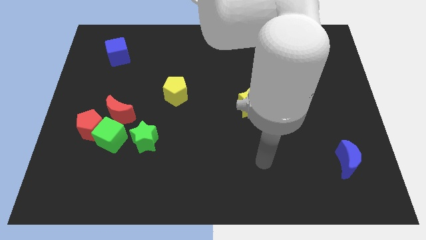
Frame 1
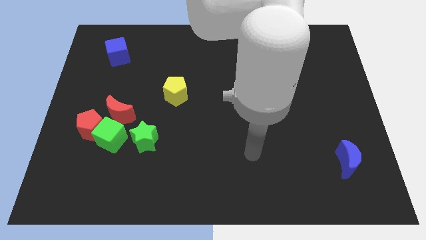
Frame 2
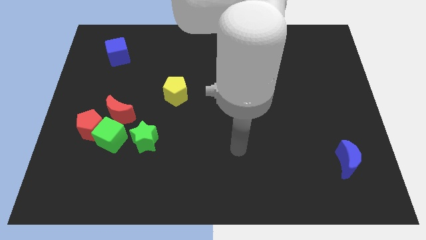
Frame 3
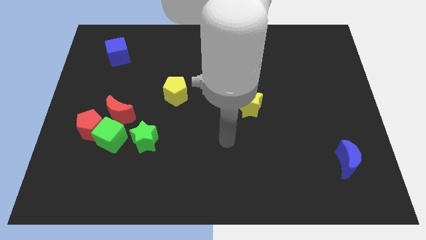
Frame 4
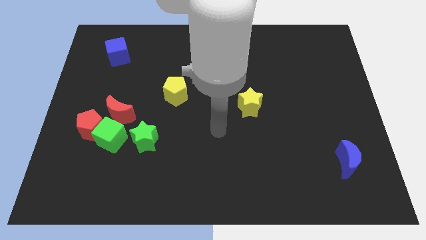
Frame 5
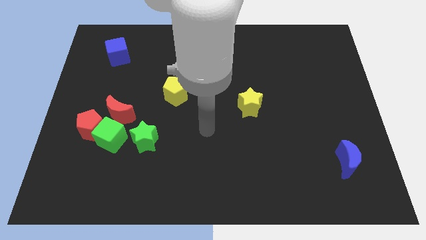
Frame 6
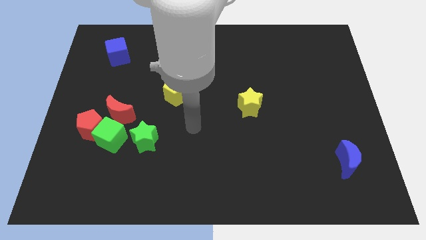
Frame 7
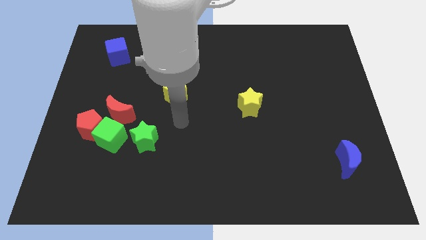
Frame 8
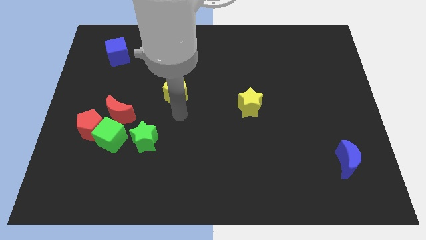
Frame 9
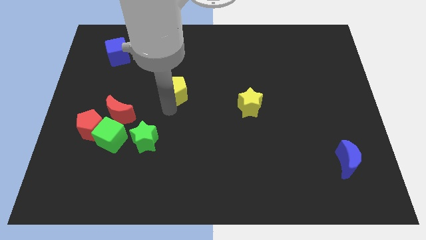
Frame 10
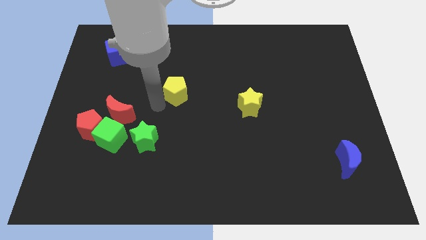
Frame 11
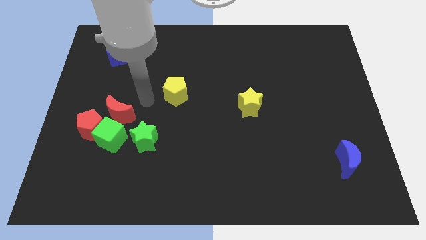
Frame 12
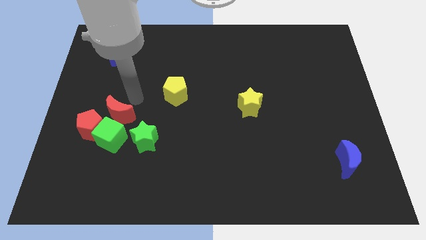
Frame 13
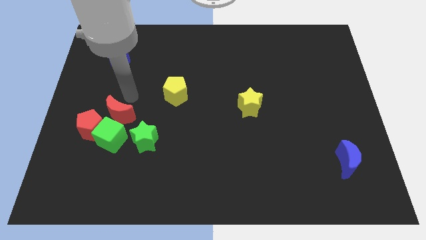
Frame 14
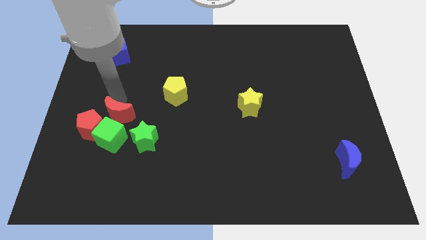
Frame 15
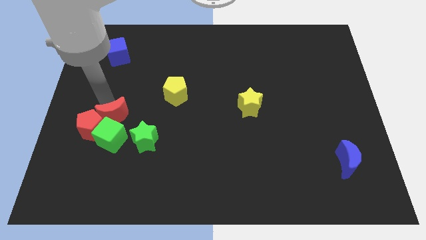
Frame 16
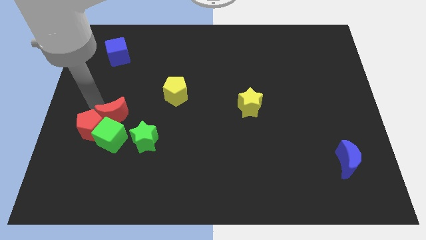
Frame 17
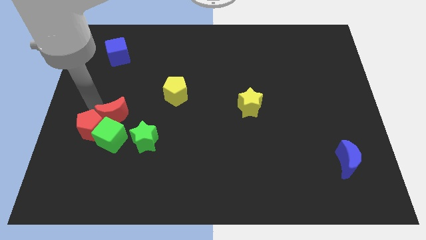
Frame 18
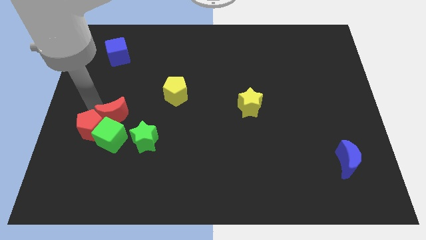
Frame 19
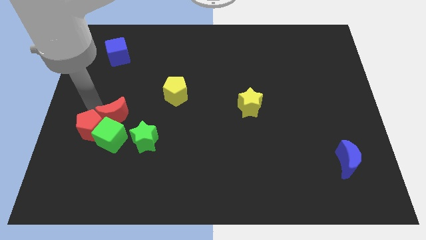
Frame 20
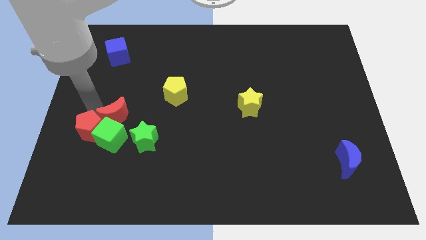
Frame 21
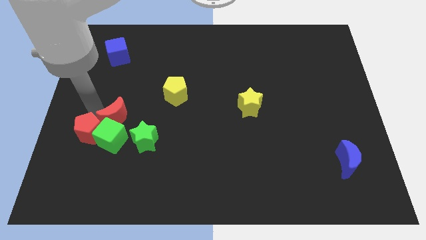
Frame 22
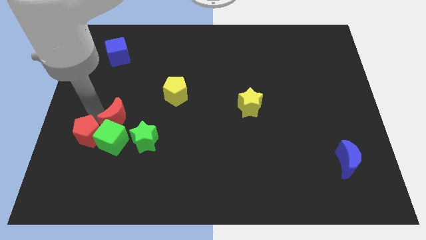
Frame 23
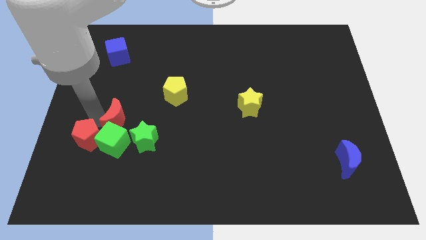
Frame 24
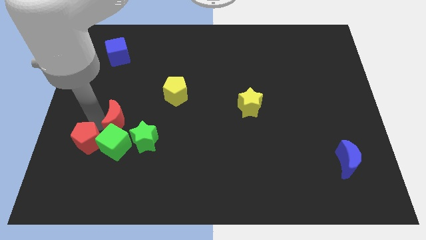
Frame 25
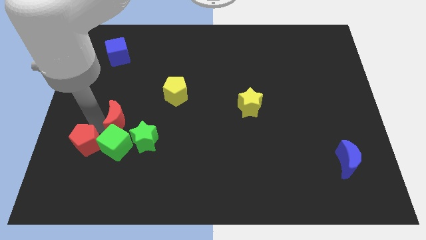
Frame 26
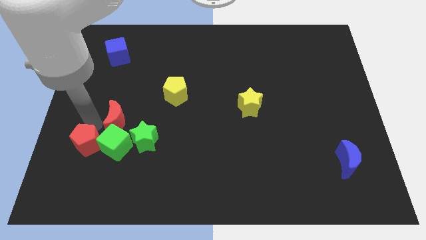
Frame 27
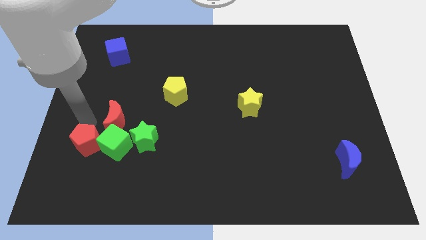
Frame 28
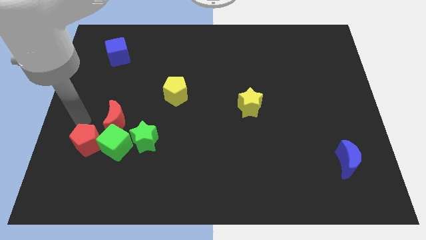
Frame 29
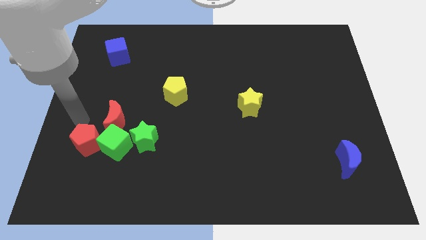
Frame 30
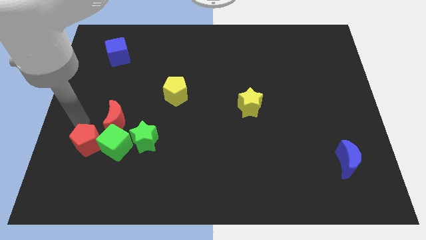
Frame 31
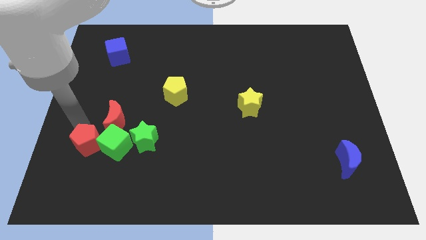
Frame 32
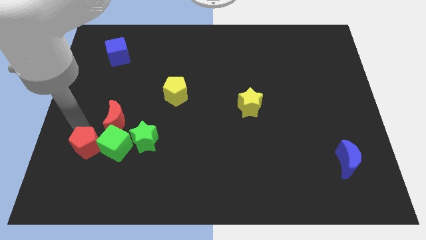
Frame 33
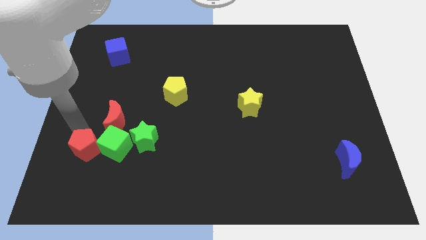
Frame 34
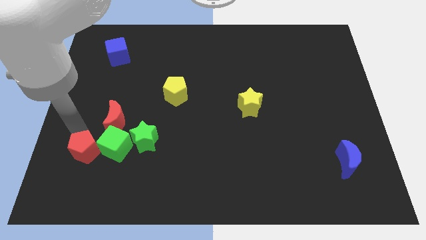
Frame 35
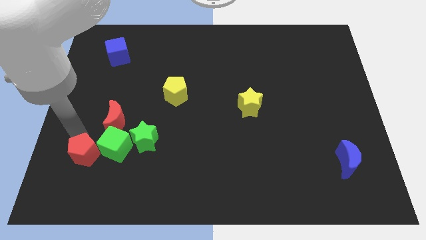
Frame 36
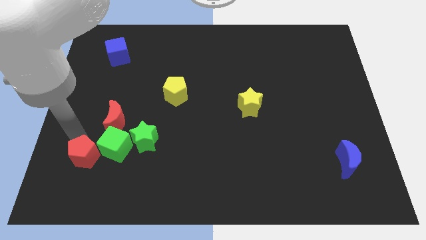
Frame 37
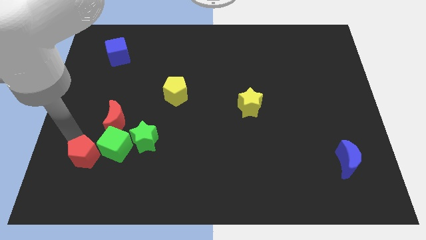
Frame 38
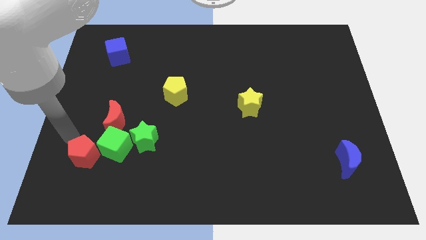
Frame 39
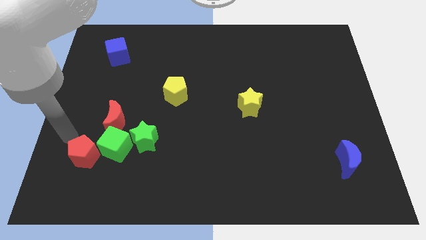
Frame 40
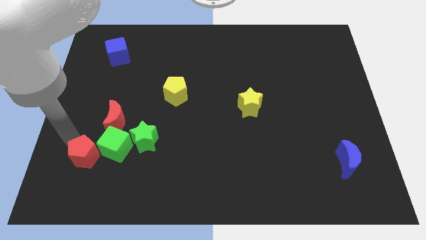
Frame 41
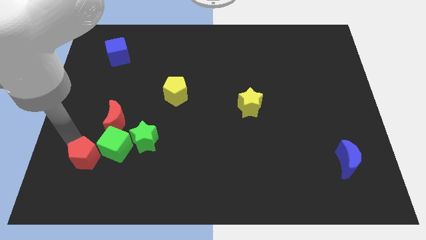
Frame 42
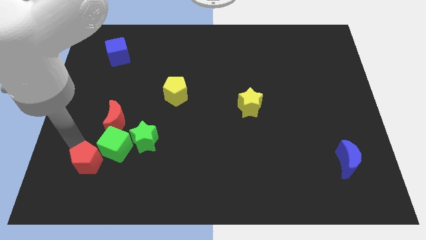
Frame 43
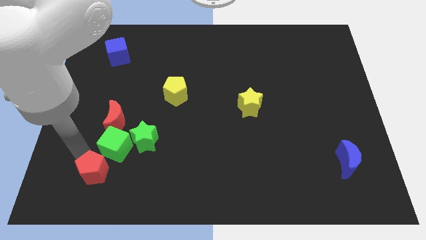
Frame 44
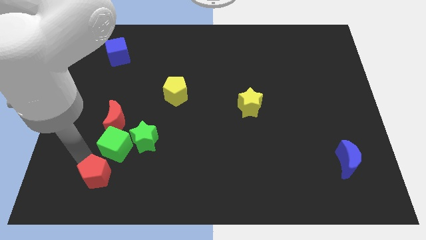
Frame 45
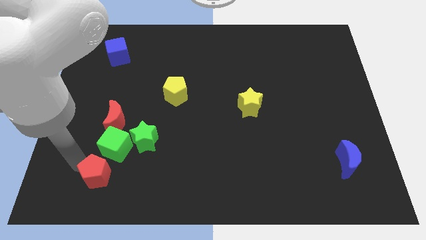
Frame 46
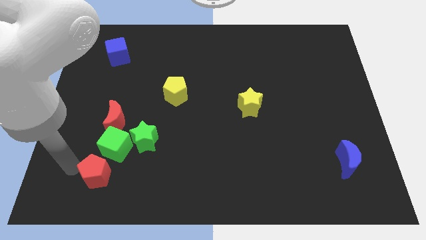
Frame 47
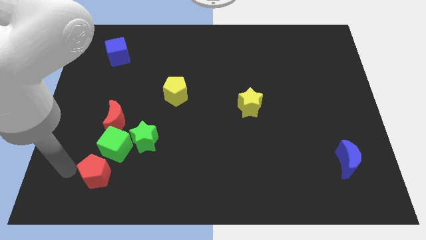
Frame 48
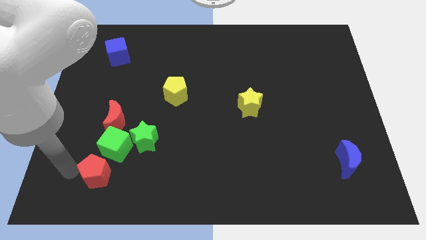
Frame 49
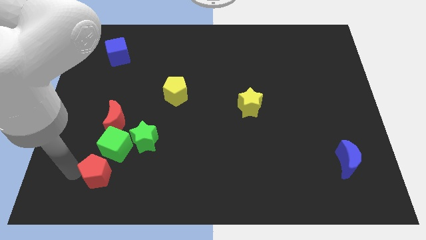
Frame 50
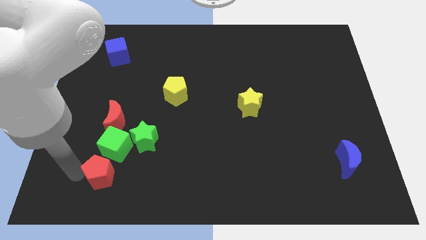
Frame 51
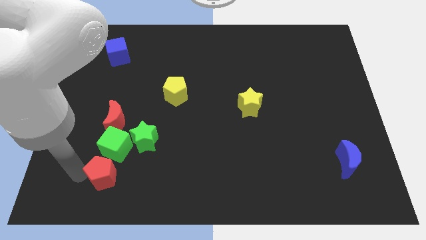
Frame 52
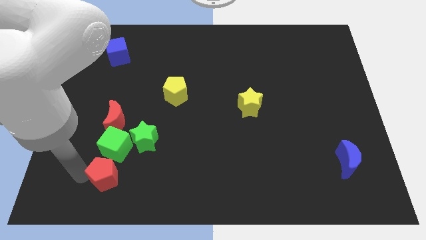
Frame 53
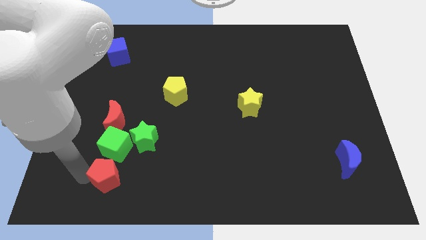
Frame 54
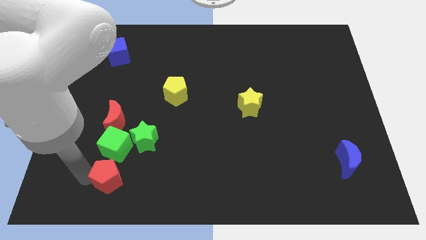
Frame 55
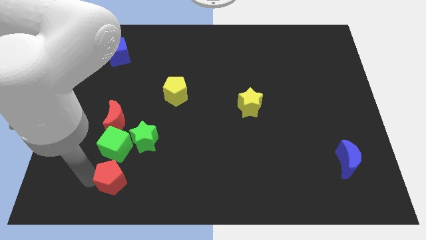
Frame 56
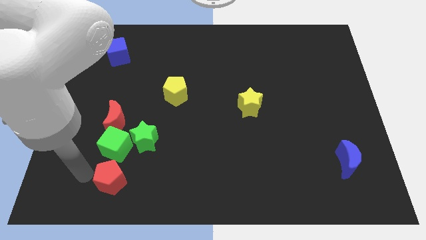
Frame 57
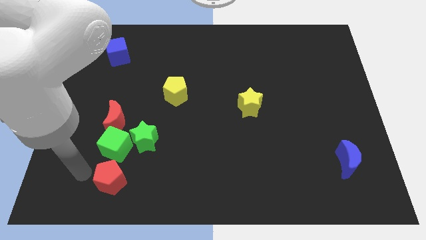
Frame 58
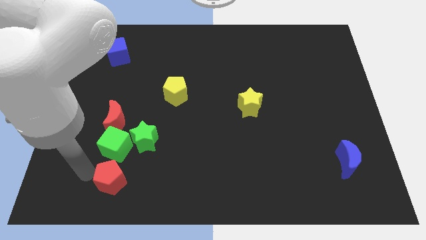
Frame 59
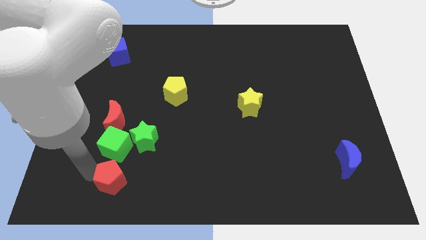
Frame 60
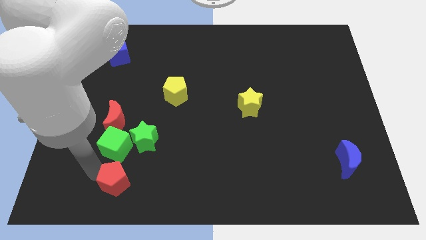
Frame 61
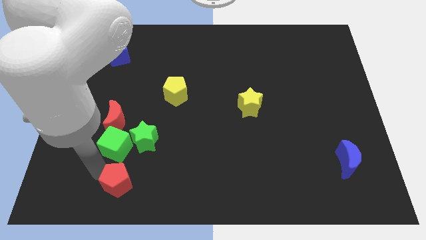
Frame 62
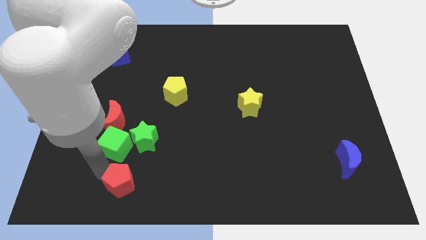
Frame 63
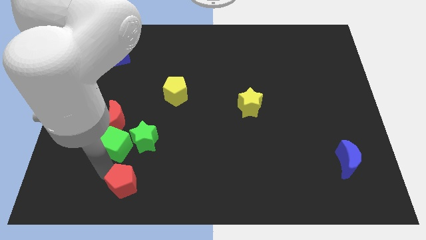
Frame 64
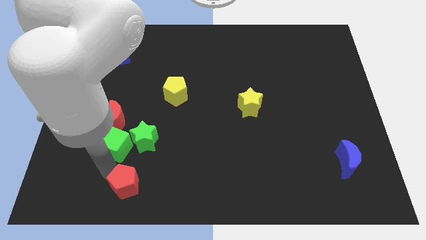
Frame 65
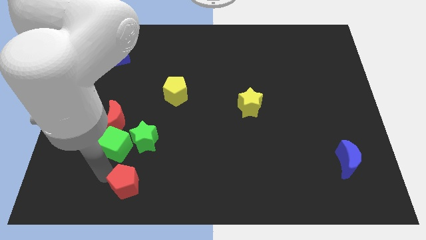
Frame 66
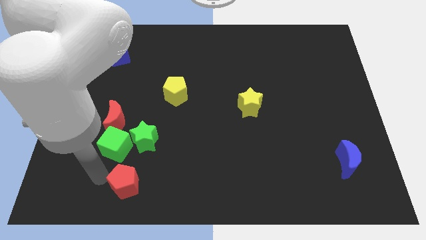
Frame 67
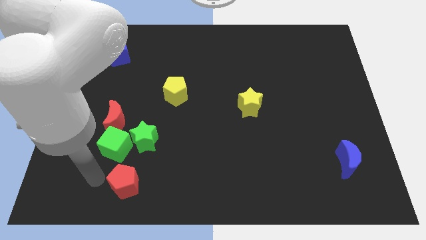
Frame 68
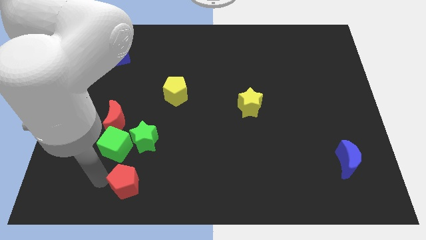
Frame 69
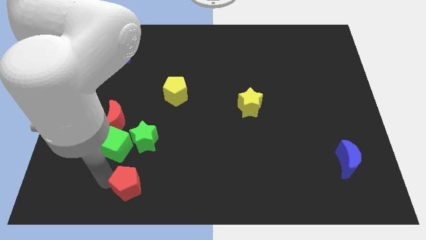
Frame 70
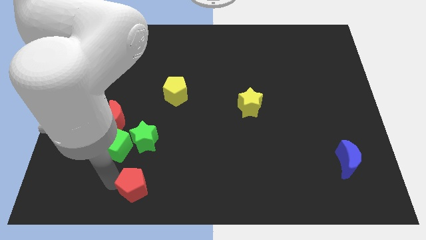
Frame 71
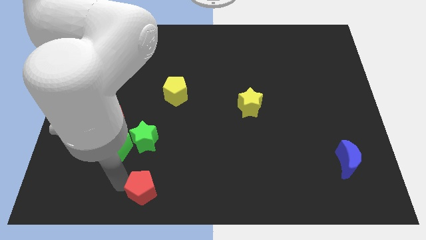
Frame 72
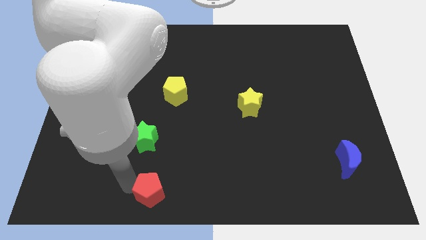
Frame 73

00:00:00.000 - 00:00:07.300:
slide the red pentagon to the bottom side
